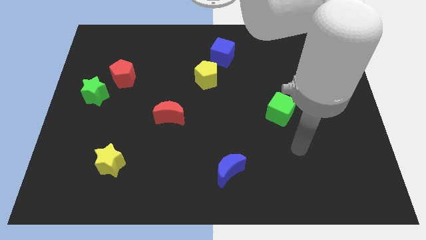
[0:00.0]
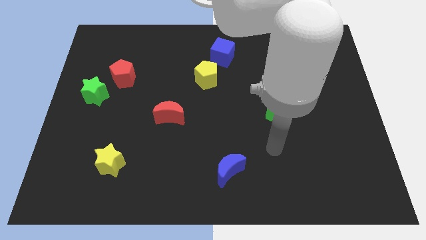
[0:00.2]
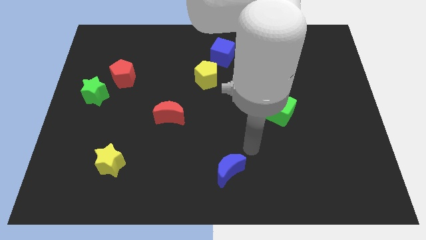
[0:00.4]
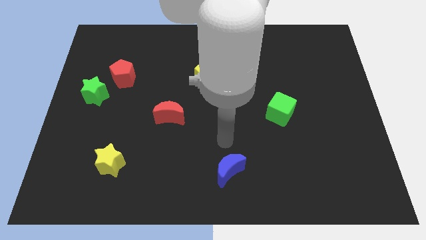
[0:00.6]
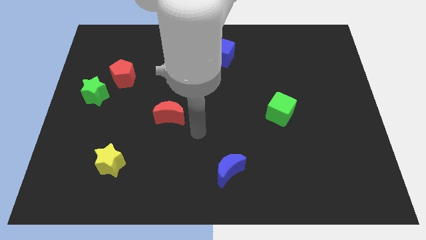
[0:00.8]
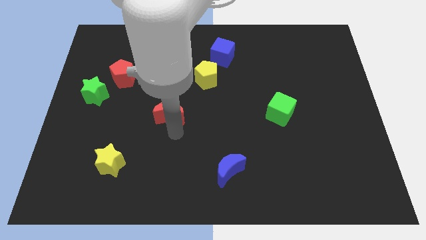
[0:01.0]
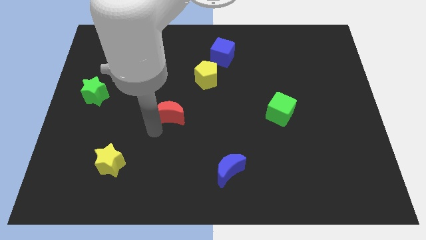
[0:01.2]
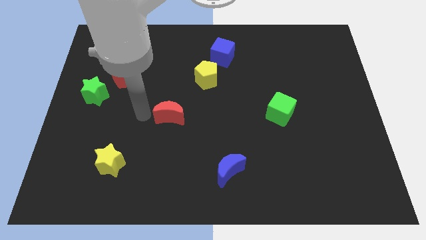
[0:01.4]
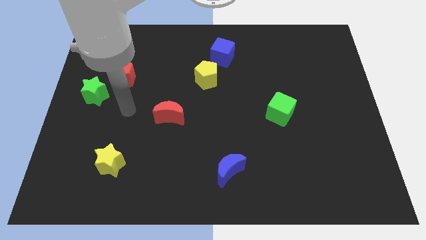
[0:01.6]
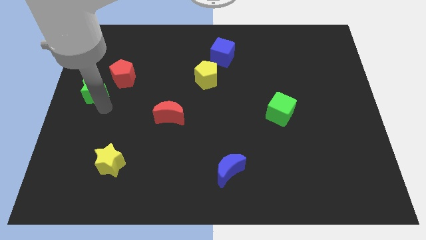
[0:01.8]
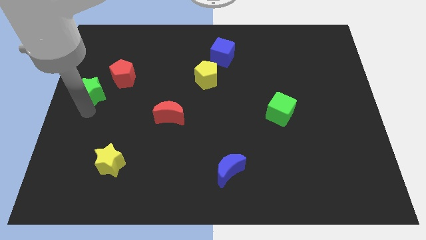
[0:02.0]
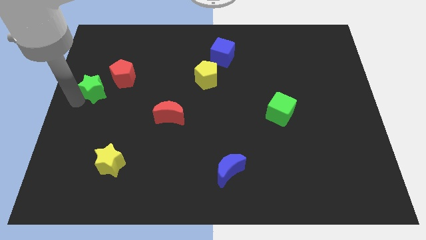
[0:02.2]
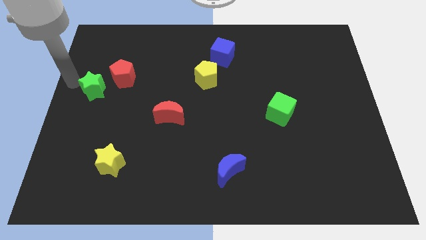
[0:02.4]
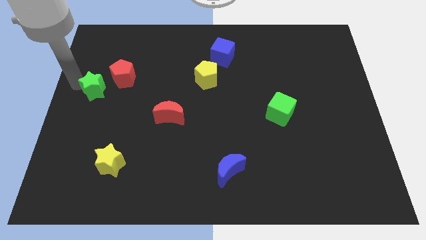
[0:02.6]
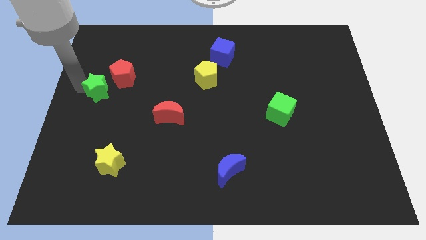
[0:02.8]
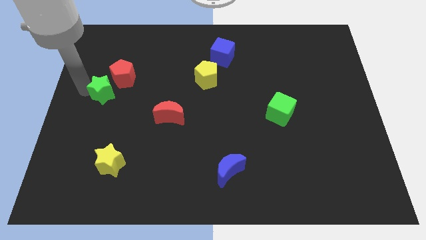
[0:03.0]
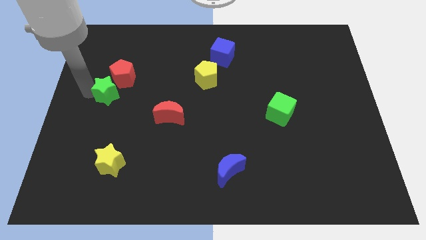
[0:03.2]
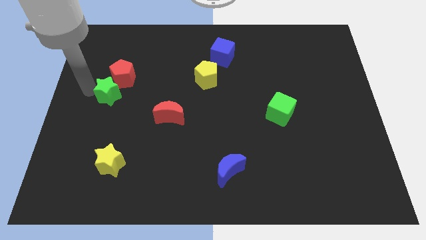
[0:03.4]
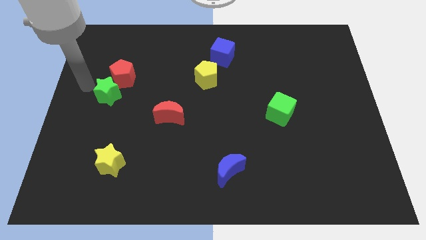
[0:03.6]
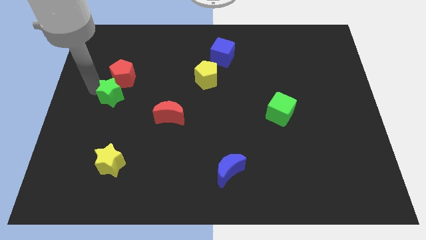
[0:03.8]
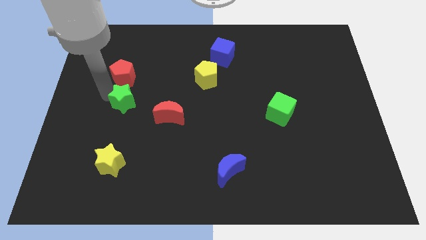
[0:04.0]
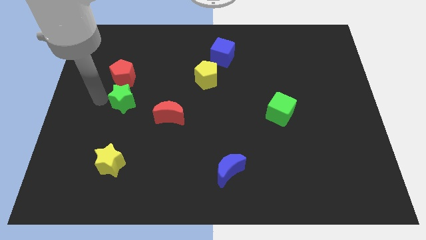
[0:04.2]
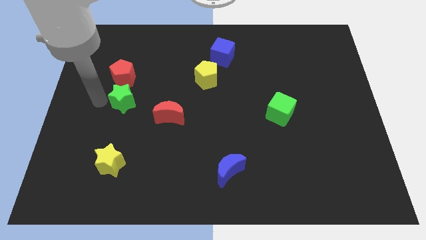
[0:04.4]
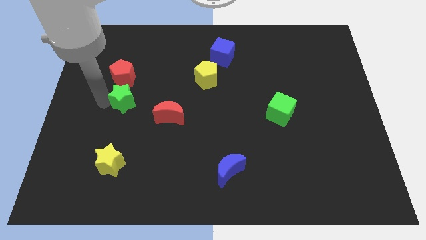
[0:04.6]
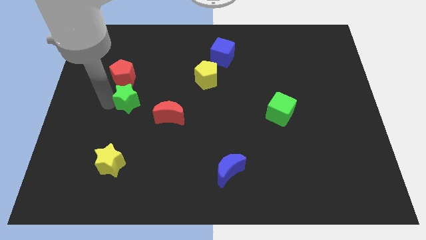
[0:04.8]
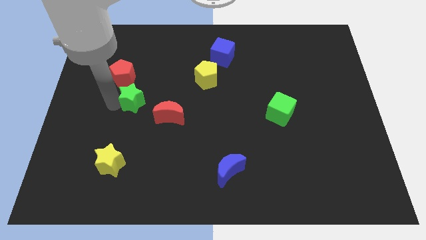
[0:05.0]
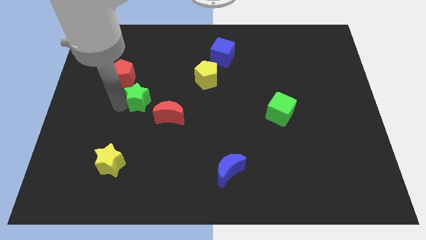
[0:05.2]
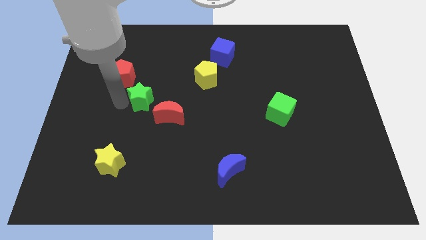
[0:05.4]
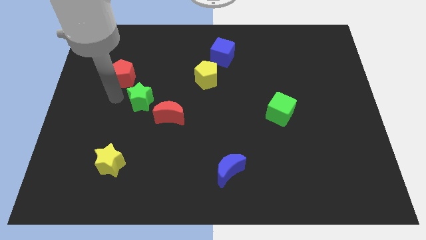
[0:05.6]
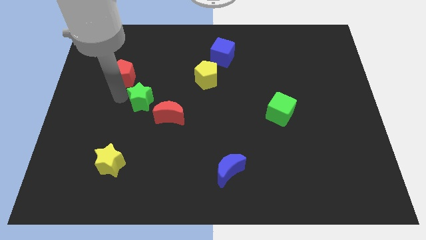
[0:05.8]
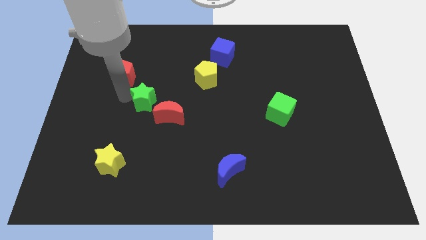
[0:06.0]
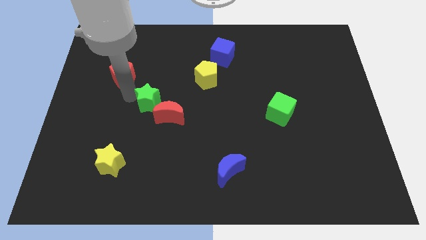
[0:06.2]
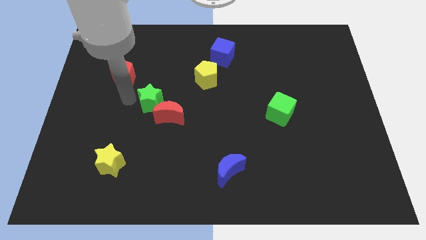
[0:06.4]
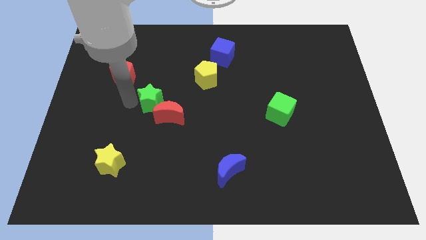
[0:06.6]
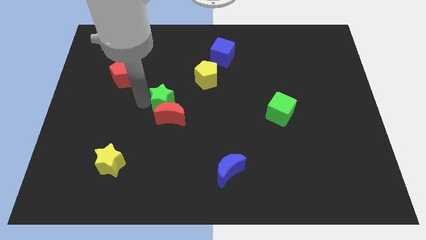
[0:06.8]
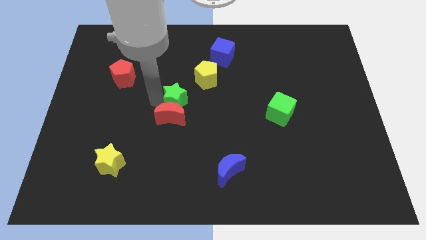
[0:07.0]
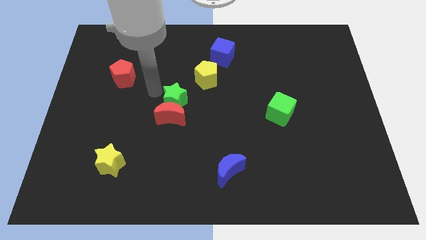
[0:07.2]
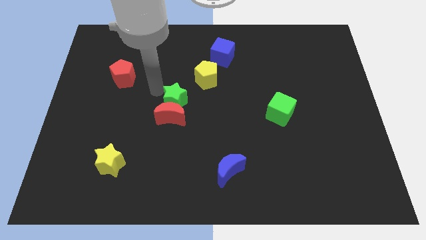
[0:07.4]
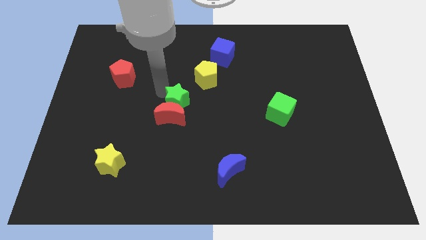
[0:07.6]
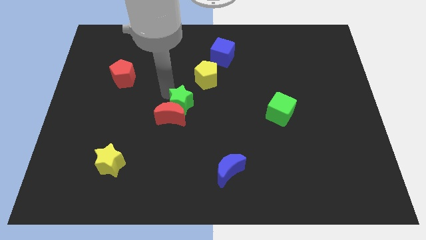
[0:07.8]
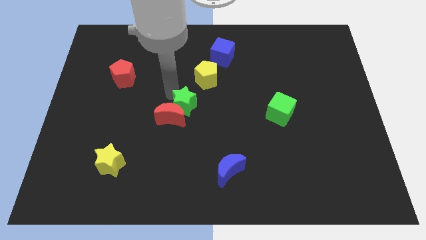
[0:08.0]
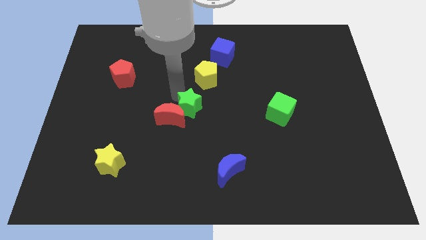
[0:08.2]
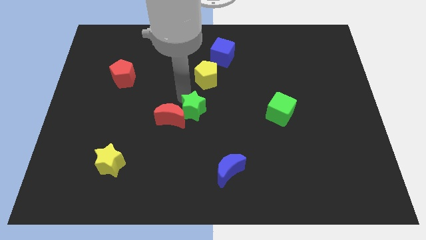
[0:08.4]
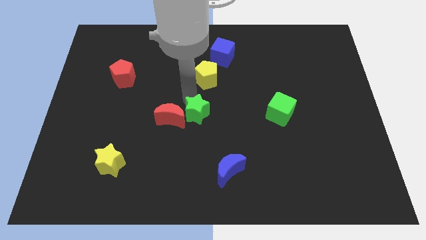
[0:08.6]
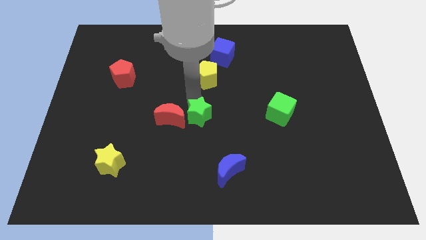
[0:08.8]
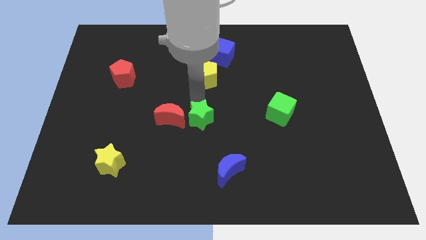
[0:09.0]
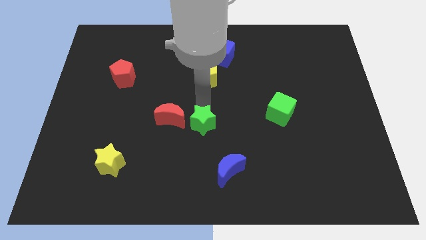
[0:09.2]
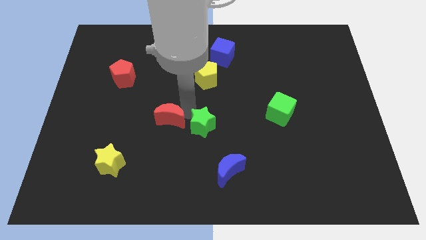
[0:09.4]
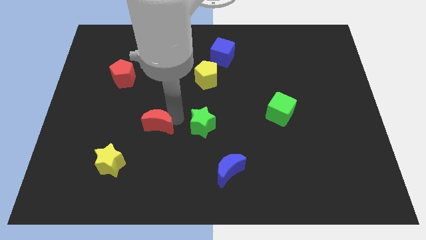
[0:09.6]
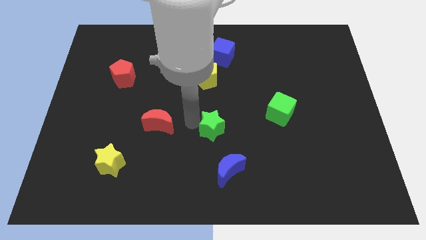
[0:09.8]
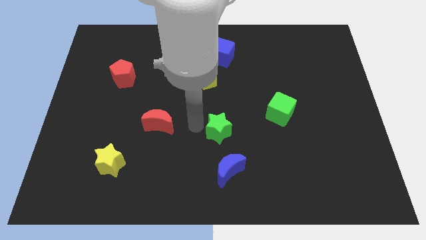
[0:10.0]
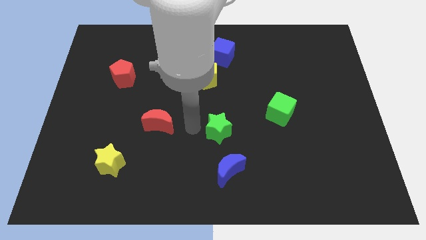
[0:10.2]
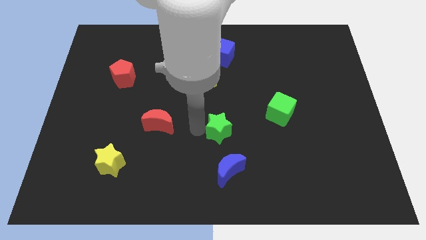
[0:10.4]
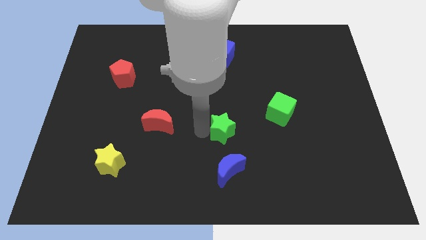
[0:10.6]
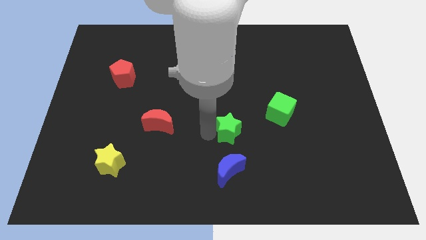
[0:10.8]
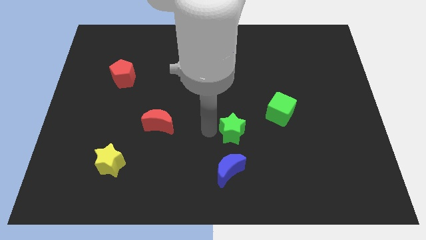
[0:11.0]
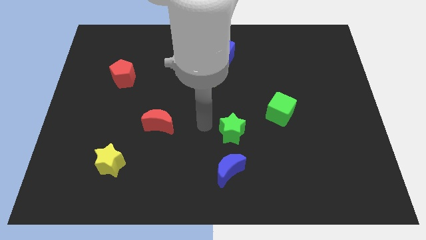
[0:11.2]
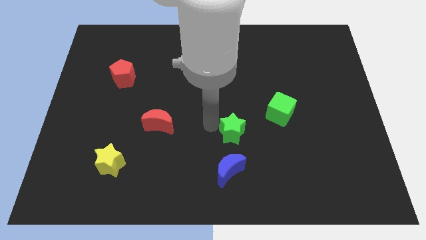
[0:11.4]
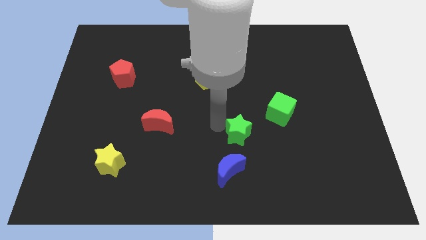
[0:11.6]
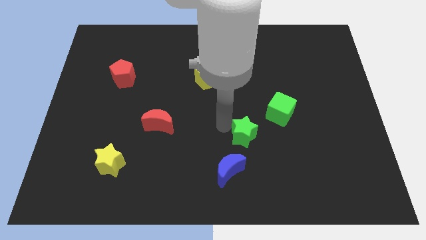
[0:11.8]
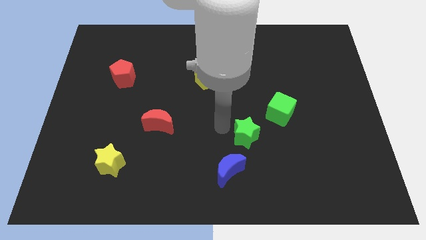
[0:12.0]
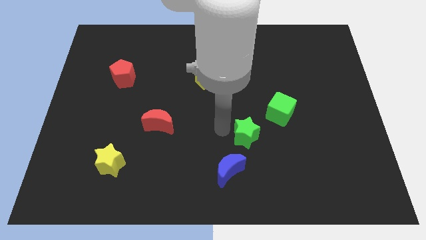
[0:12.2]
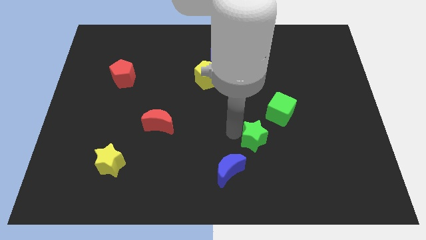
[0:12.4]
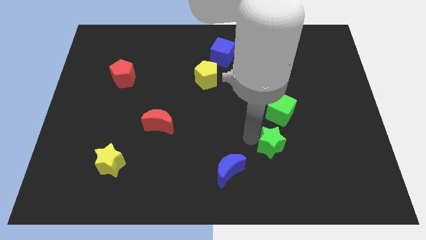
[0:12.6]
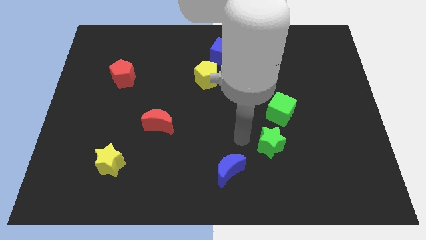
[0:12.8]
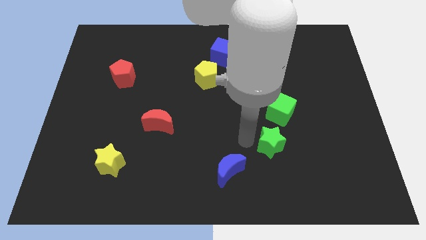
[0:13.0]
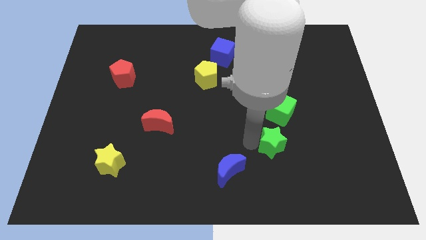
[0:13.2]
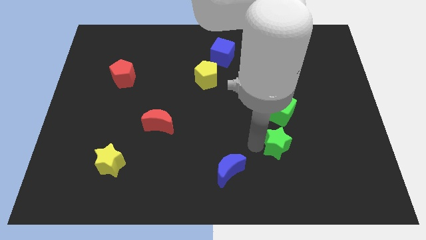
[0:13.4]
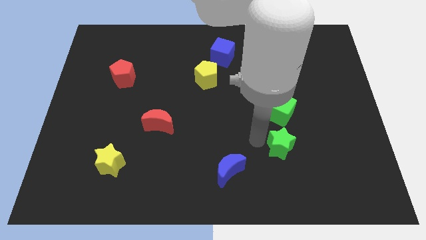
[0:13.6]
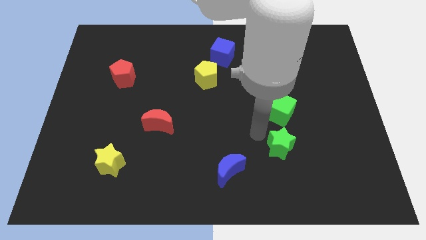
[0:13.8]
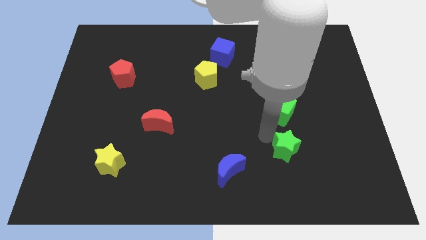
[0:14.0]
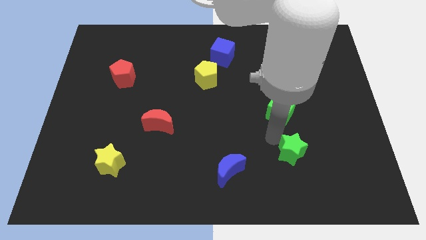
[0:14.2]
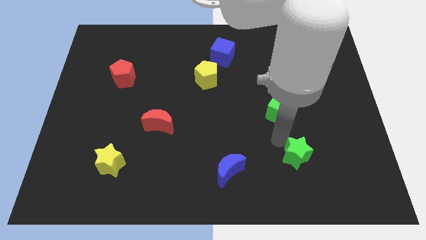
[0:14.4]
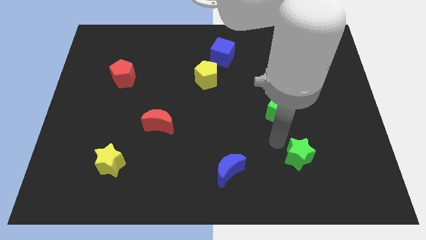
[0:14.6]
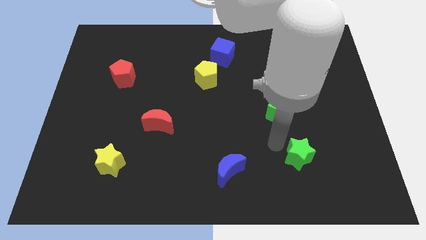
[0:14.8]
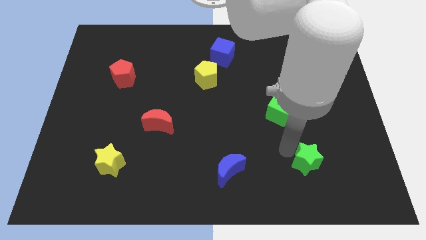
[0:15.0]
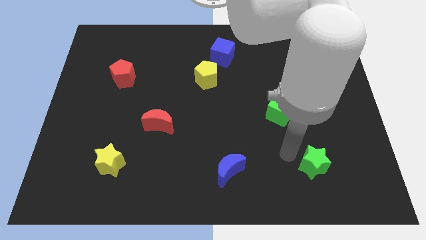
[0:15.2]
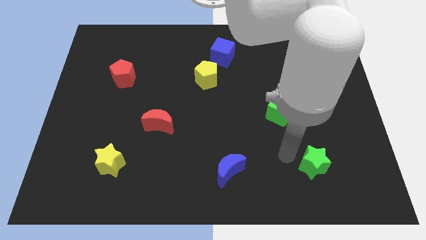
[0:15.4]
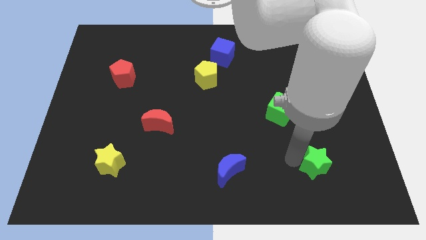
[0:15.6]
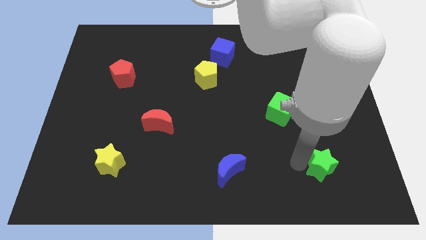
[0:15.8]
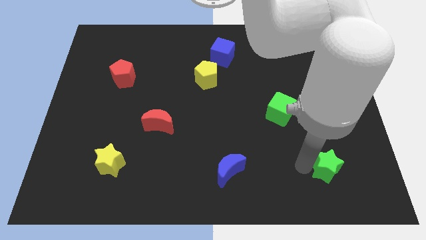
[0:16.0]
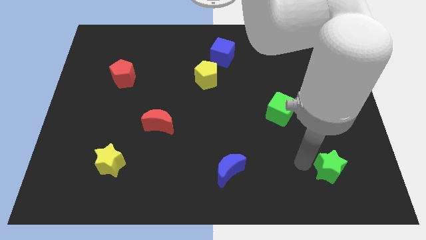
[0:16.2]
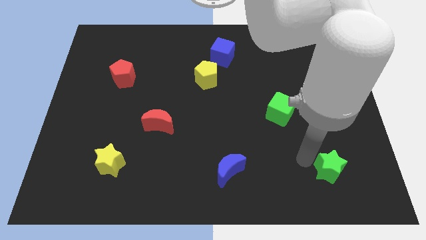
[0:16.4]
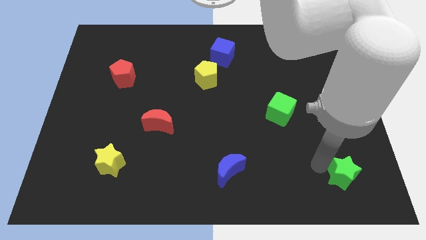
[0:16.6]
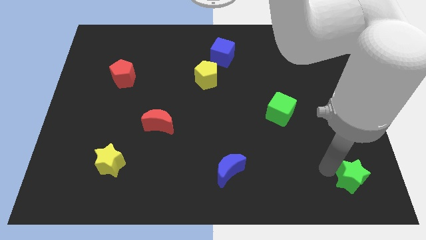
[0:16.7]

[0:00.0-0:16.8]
put the green star to the bottom right of the board
